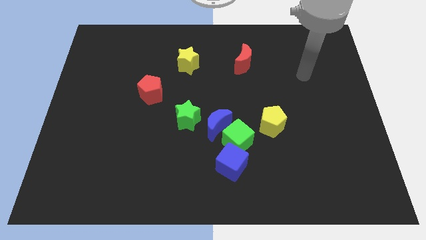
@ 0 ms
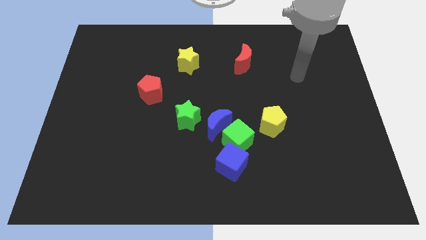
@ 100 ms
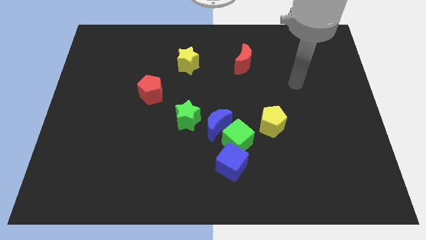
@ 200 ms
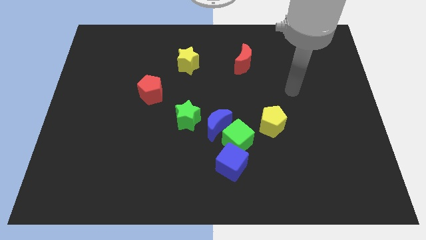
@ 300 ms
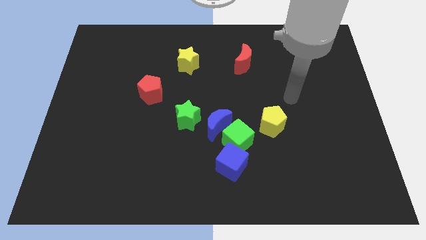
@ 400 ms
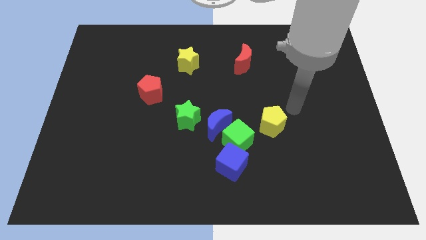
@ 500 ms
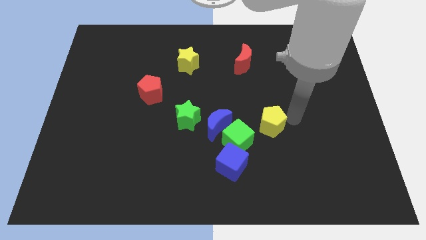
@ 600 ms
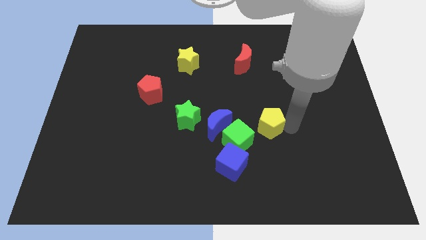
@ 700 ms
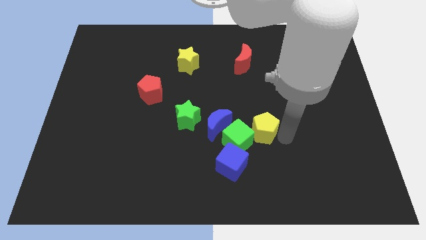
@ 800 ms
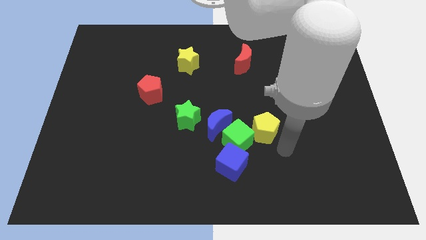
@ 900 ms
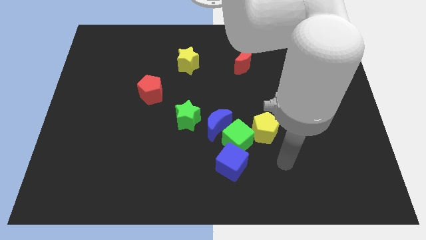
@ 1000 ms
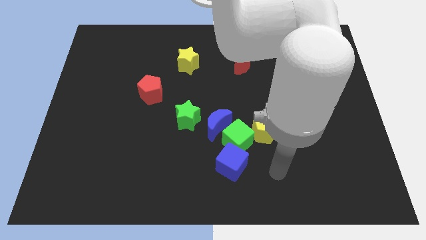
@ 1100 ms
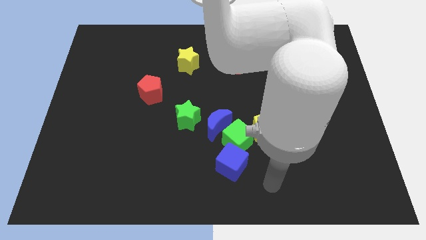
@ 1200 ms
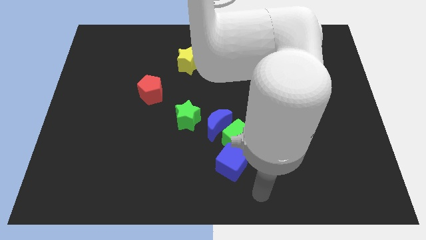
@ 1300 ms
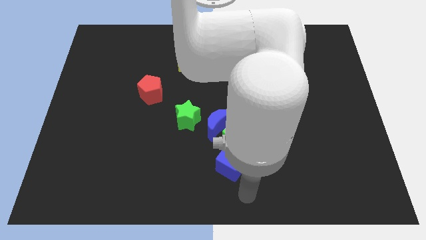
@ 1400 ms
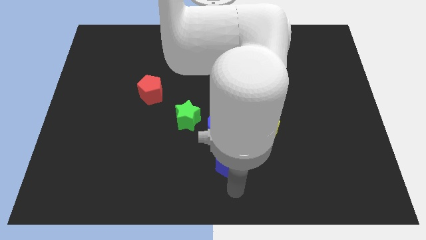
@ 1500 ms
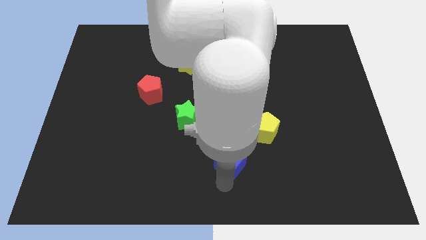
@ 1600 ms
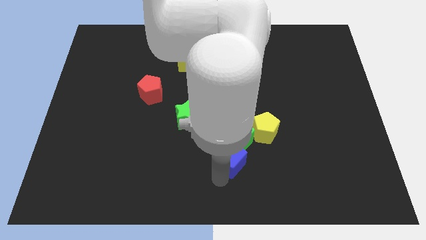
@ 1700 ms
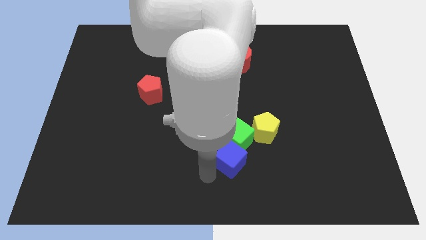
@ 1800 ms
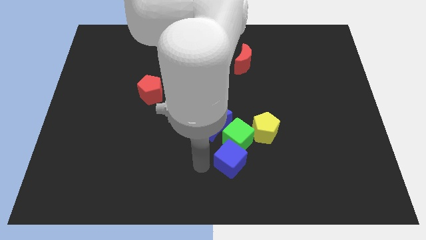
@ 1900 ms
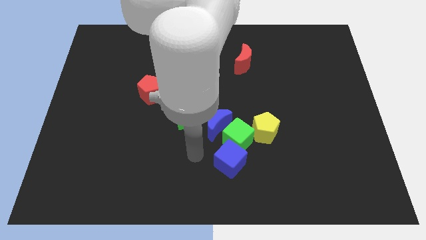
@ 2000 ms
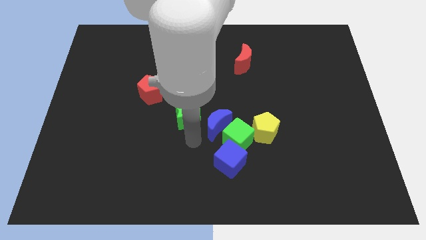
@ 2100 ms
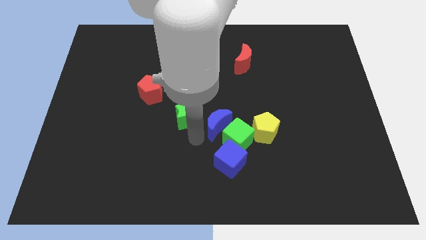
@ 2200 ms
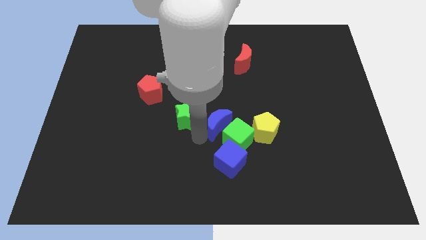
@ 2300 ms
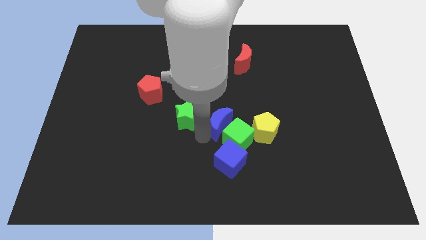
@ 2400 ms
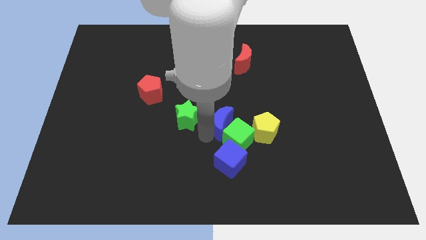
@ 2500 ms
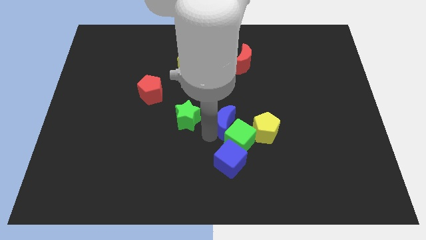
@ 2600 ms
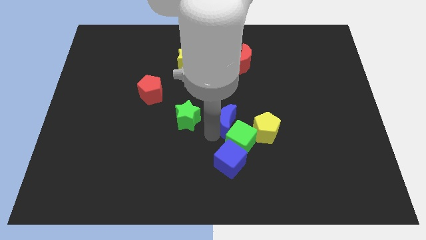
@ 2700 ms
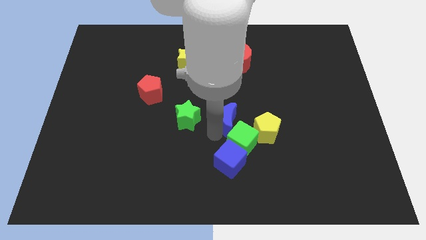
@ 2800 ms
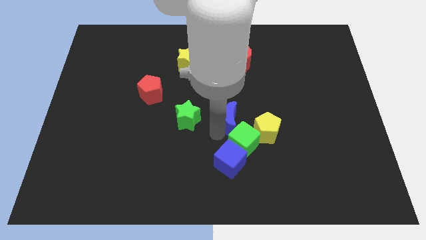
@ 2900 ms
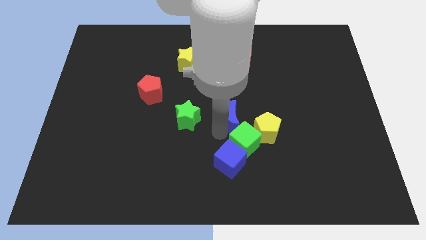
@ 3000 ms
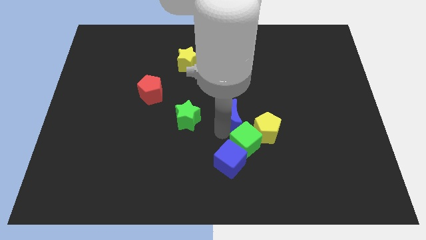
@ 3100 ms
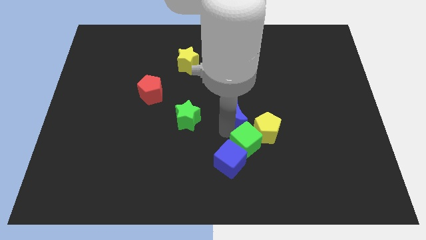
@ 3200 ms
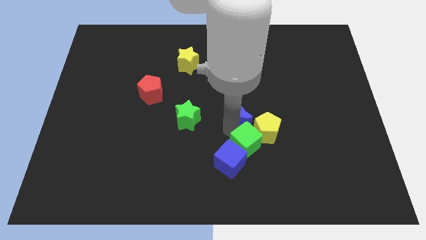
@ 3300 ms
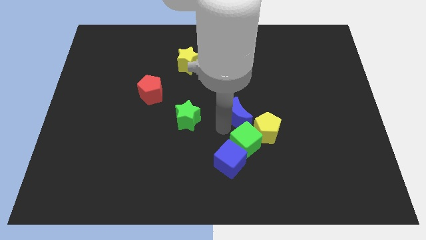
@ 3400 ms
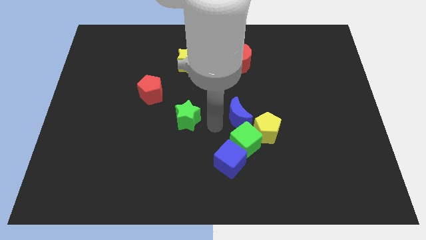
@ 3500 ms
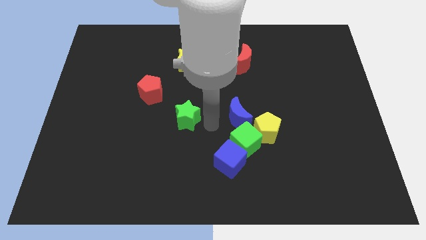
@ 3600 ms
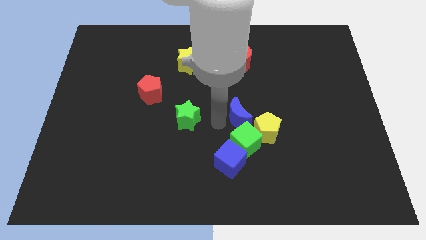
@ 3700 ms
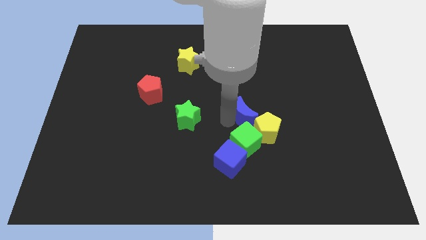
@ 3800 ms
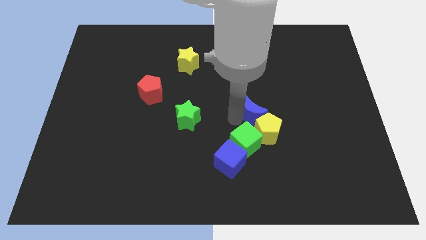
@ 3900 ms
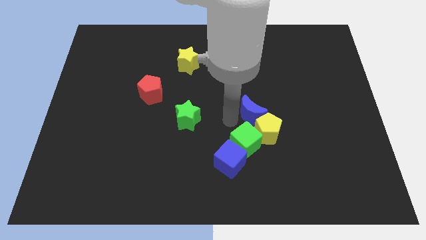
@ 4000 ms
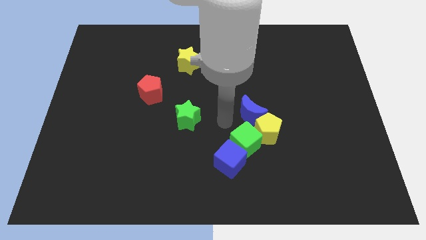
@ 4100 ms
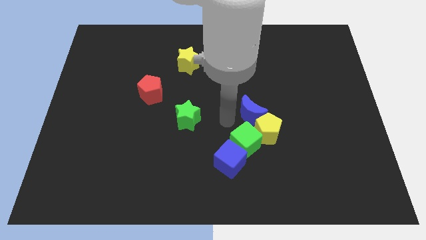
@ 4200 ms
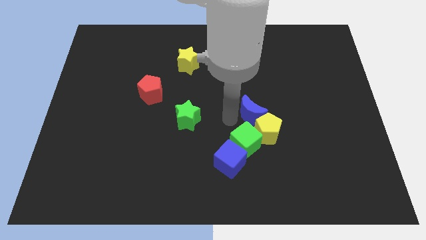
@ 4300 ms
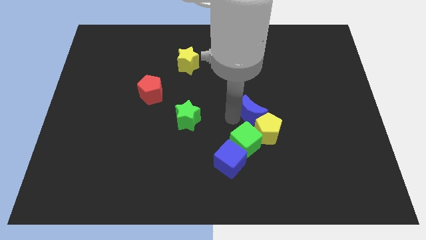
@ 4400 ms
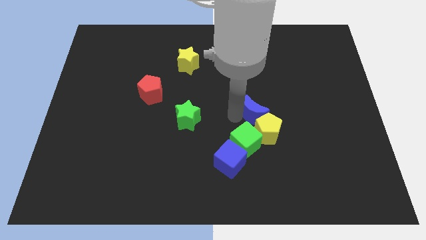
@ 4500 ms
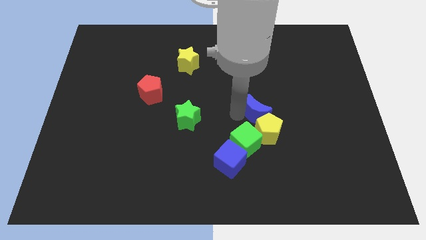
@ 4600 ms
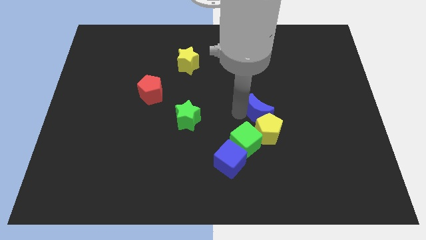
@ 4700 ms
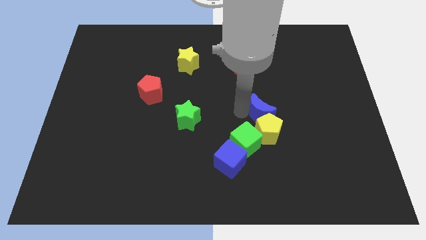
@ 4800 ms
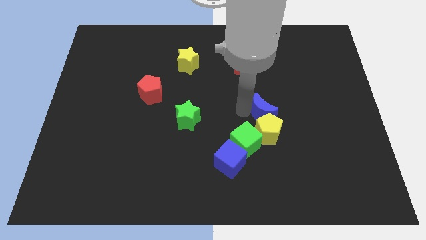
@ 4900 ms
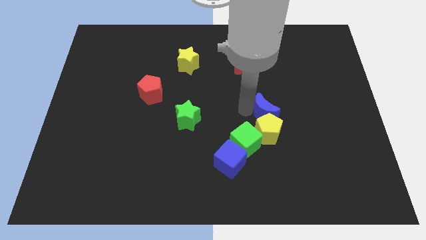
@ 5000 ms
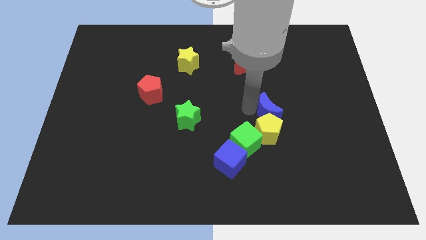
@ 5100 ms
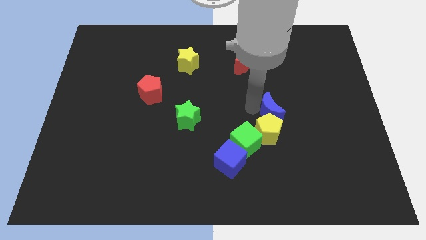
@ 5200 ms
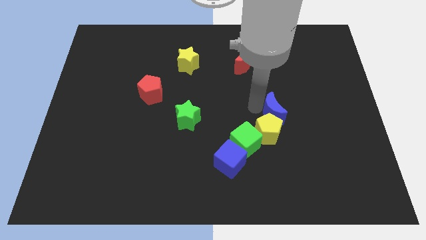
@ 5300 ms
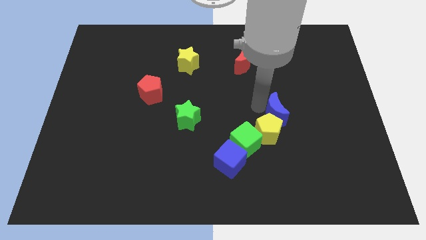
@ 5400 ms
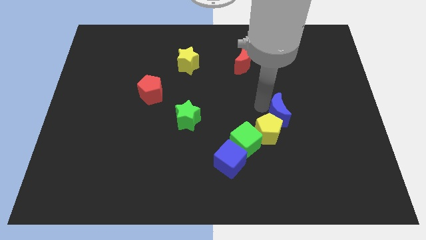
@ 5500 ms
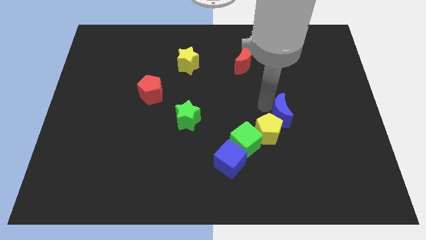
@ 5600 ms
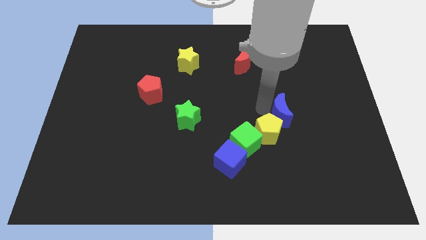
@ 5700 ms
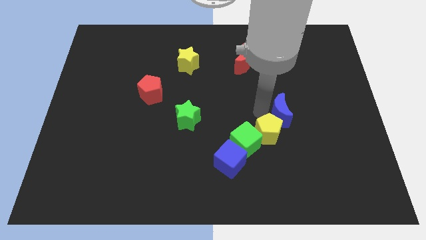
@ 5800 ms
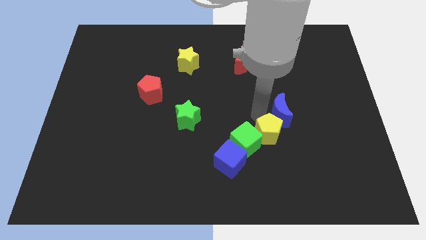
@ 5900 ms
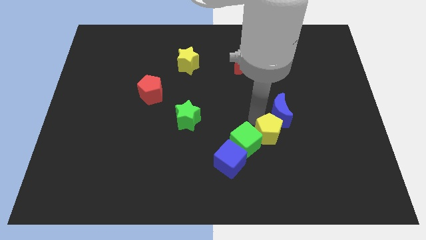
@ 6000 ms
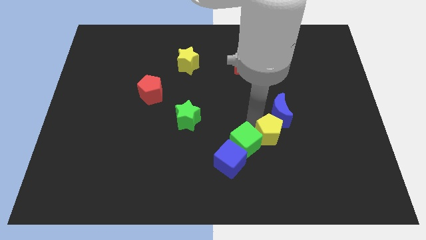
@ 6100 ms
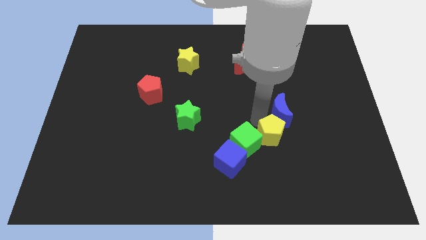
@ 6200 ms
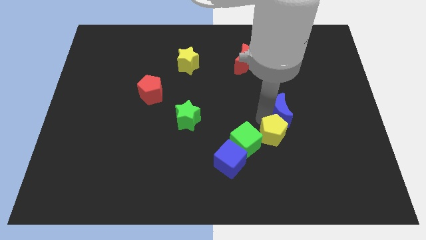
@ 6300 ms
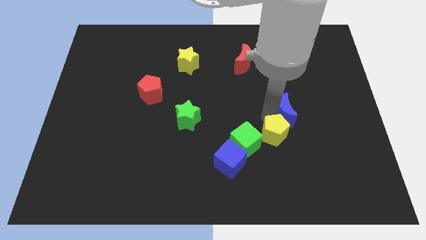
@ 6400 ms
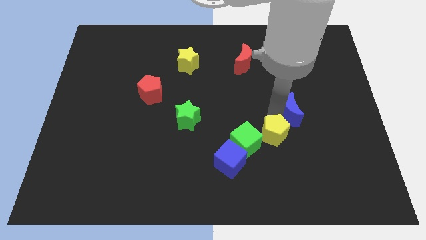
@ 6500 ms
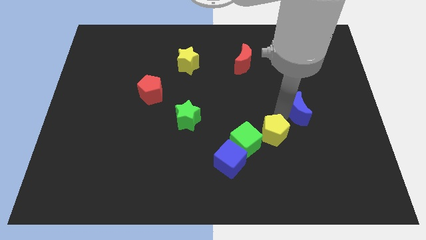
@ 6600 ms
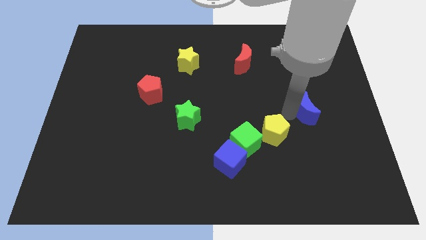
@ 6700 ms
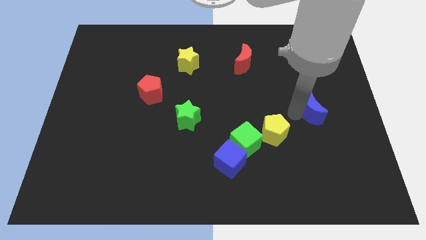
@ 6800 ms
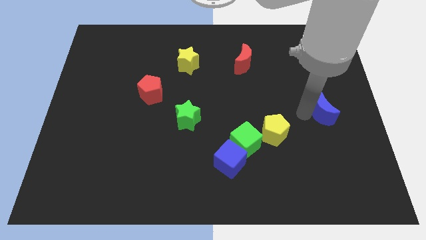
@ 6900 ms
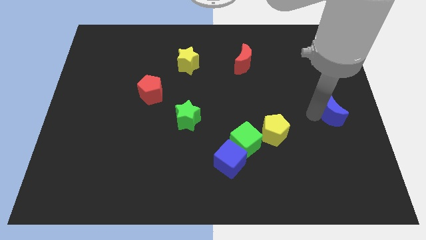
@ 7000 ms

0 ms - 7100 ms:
slide the blue moon to the right side
